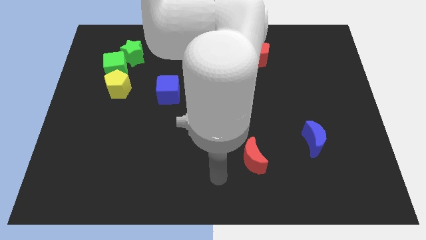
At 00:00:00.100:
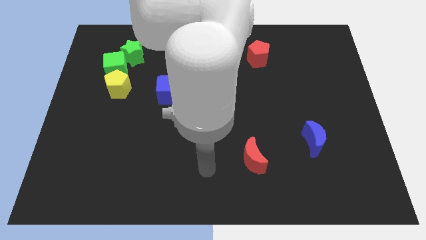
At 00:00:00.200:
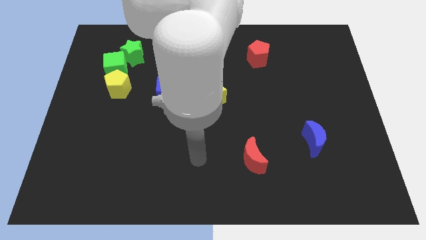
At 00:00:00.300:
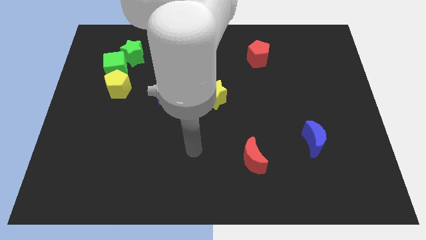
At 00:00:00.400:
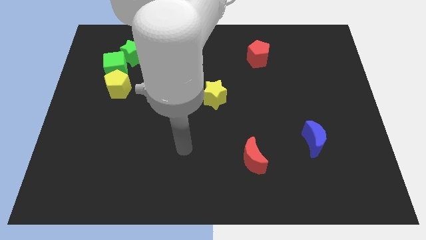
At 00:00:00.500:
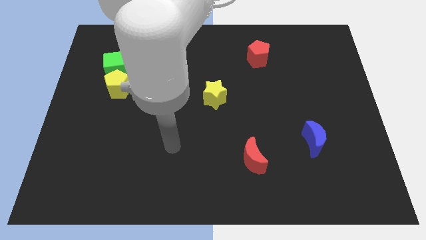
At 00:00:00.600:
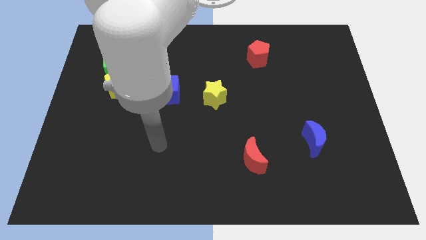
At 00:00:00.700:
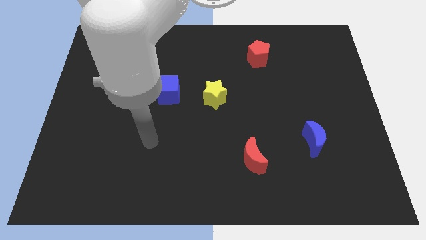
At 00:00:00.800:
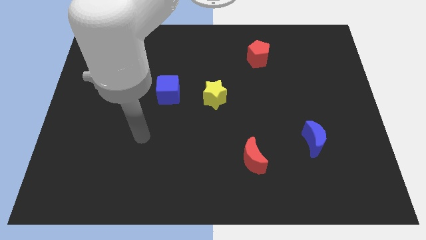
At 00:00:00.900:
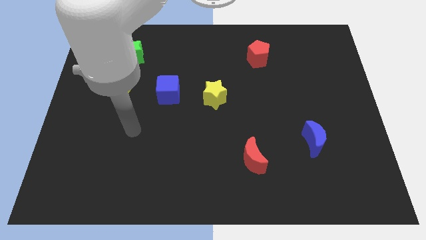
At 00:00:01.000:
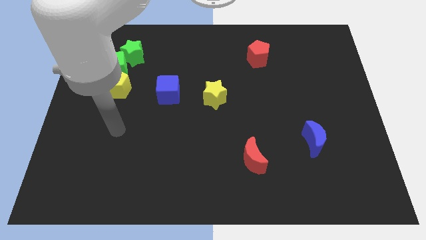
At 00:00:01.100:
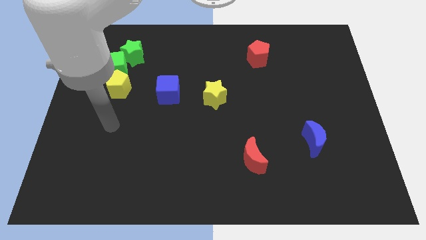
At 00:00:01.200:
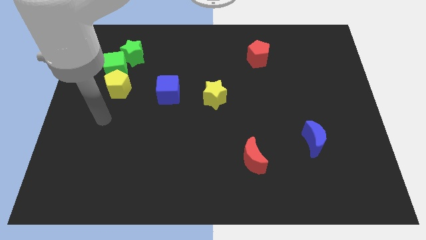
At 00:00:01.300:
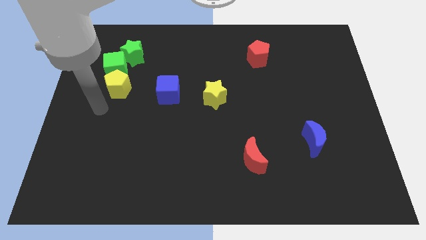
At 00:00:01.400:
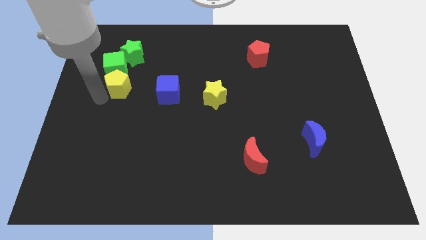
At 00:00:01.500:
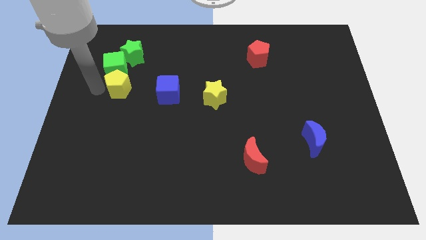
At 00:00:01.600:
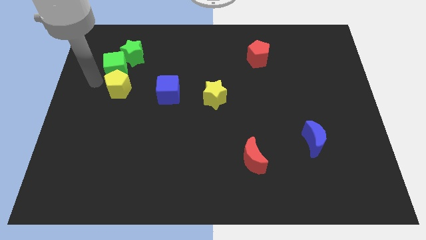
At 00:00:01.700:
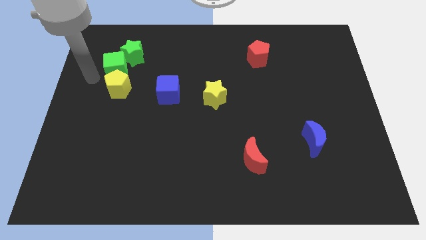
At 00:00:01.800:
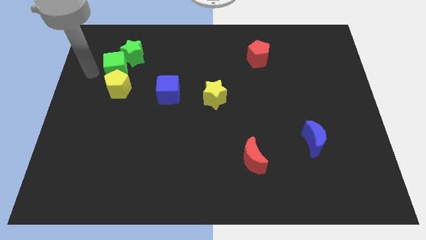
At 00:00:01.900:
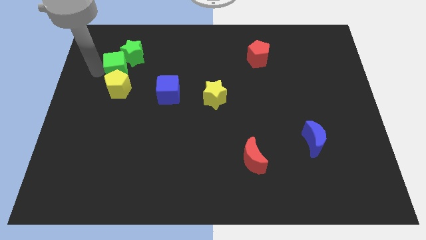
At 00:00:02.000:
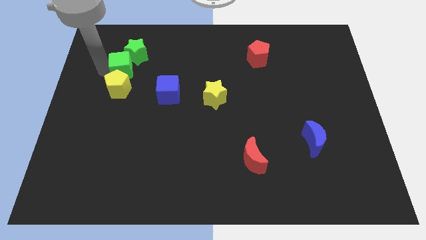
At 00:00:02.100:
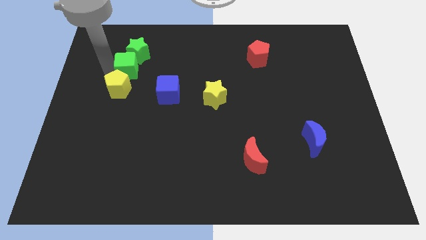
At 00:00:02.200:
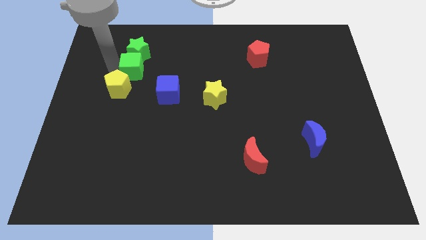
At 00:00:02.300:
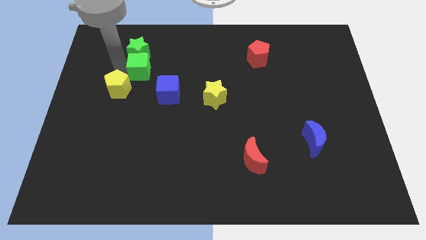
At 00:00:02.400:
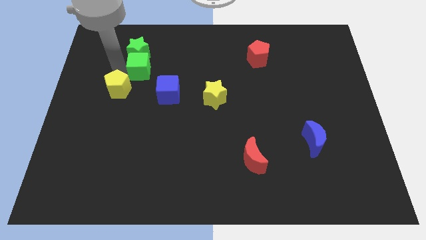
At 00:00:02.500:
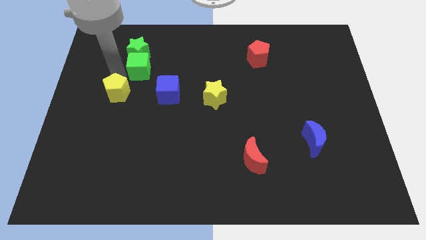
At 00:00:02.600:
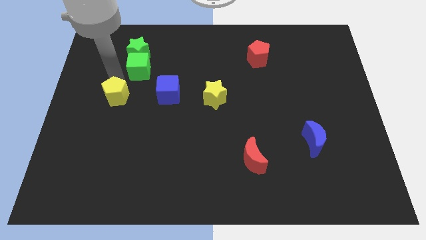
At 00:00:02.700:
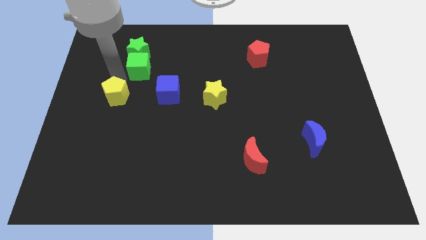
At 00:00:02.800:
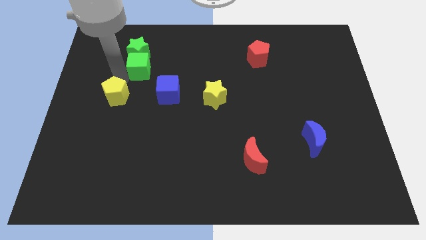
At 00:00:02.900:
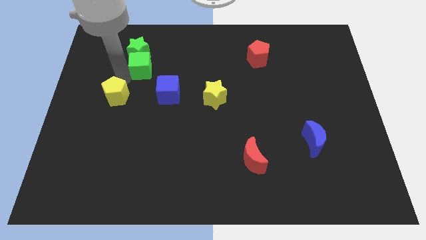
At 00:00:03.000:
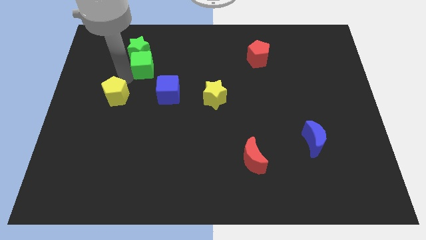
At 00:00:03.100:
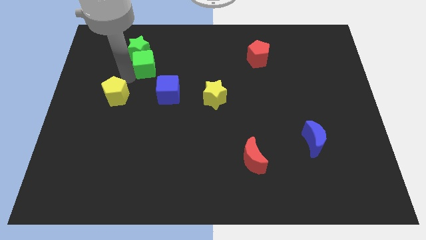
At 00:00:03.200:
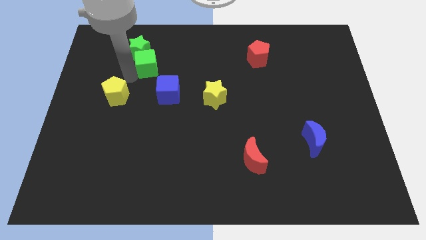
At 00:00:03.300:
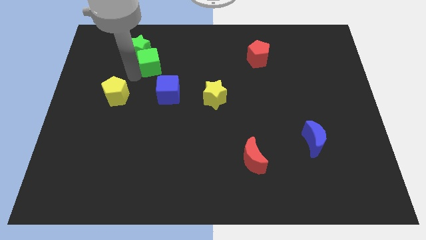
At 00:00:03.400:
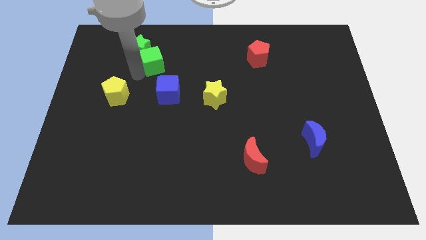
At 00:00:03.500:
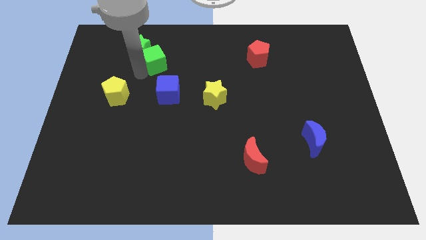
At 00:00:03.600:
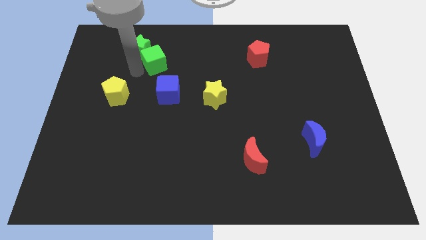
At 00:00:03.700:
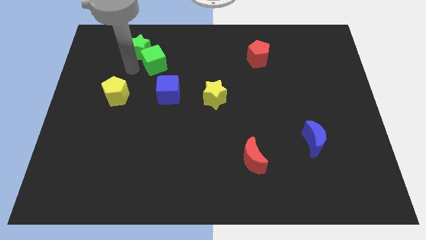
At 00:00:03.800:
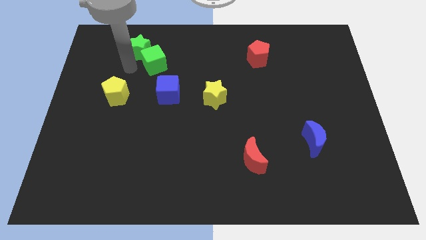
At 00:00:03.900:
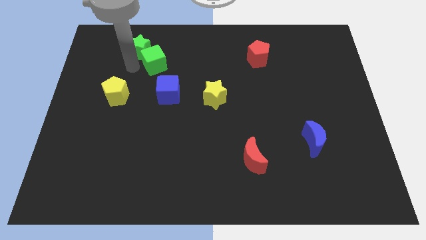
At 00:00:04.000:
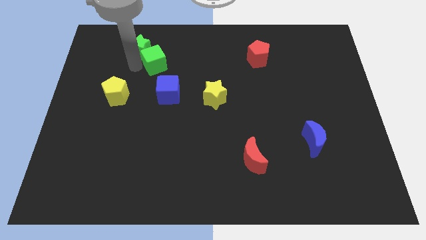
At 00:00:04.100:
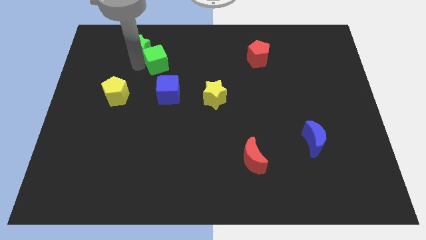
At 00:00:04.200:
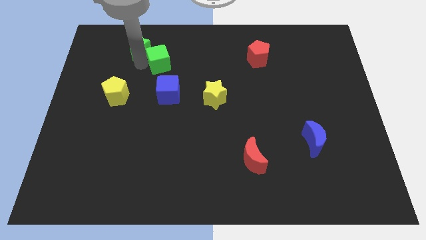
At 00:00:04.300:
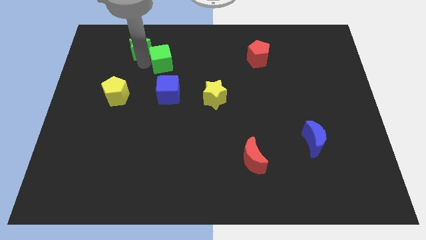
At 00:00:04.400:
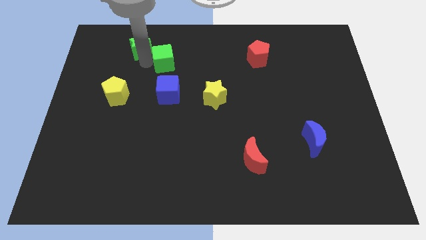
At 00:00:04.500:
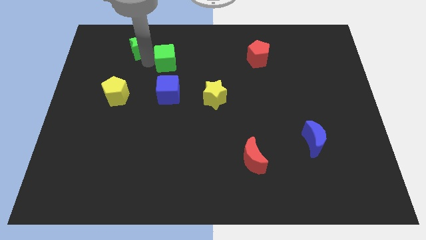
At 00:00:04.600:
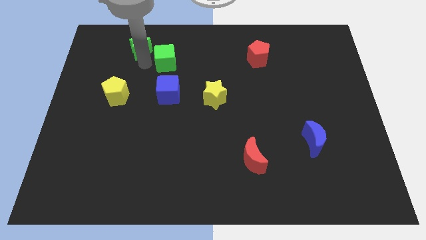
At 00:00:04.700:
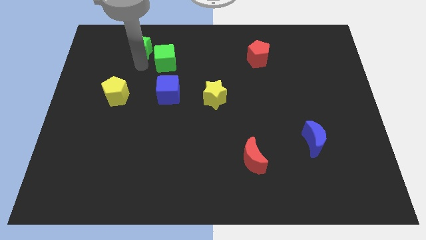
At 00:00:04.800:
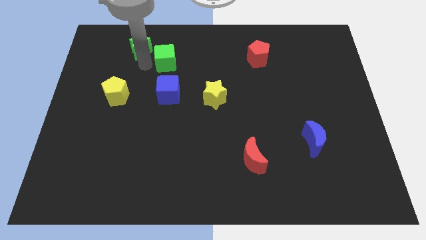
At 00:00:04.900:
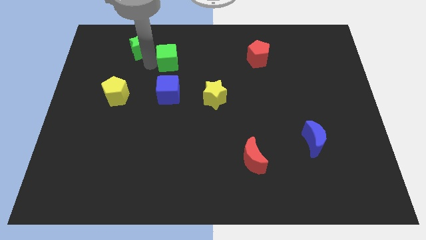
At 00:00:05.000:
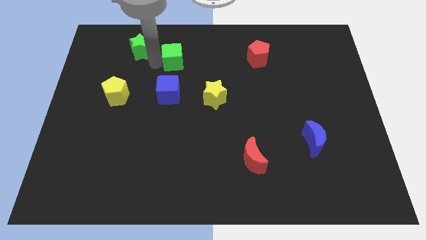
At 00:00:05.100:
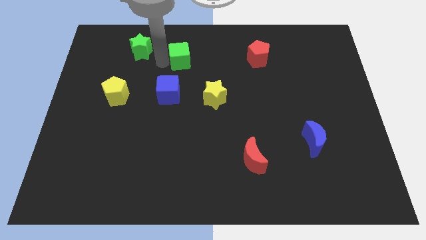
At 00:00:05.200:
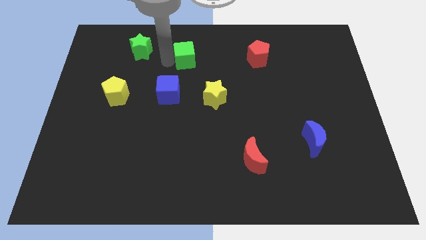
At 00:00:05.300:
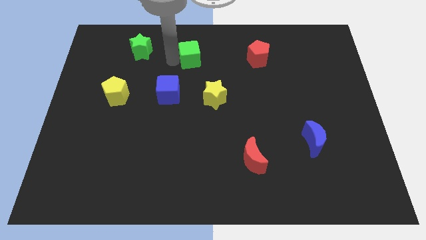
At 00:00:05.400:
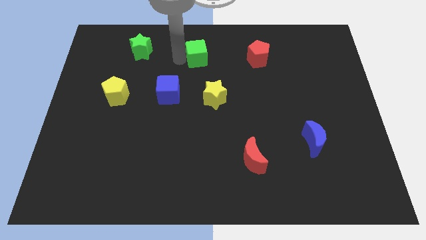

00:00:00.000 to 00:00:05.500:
move the green cube to the left side of the red pentagon

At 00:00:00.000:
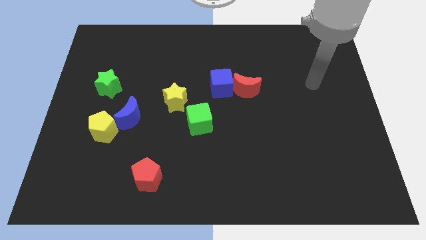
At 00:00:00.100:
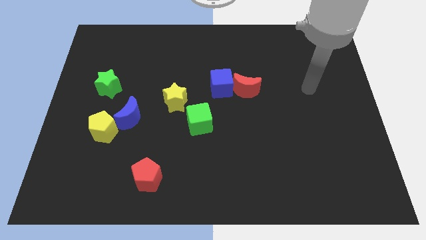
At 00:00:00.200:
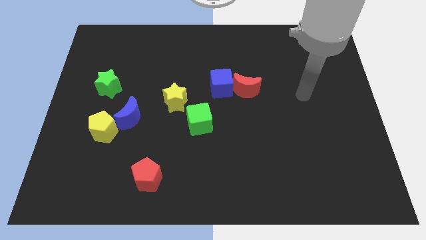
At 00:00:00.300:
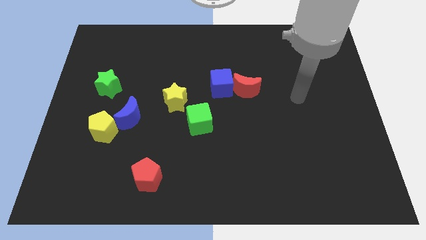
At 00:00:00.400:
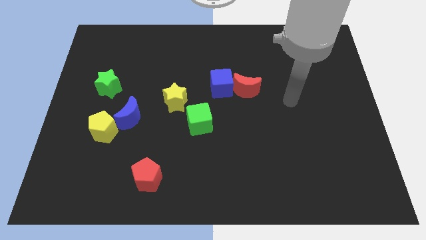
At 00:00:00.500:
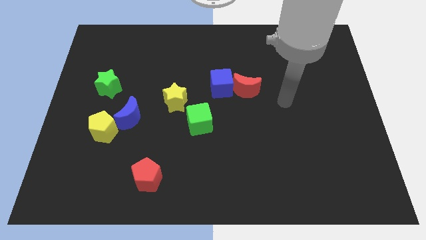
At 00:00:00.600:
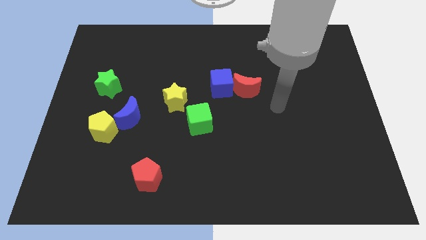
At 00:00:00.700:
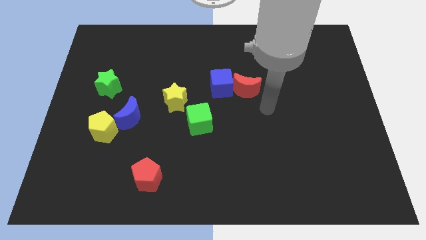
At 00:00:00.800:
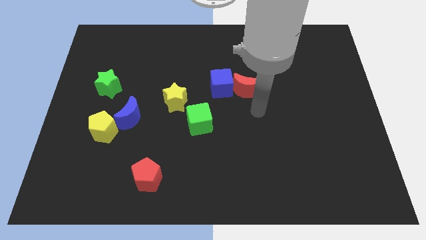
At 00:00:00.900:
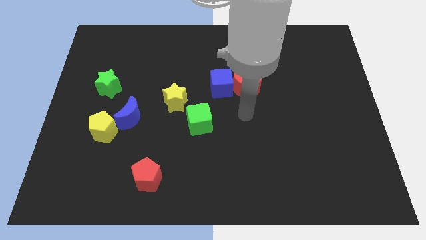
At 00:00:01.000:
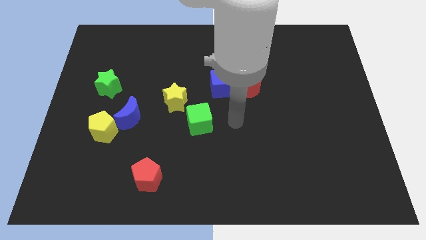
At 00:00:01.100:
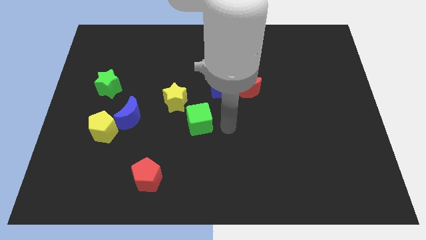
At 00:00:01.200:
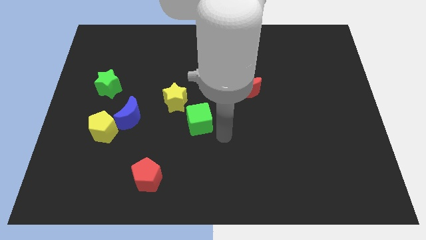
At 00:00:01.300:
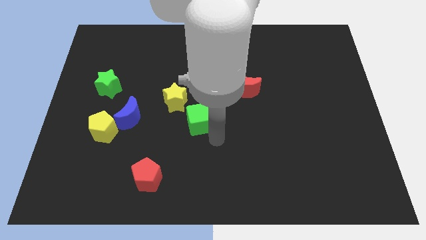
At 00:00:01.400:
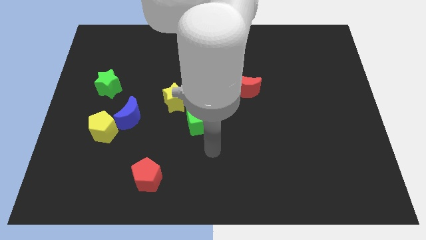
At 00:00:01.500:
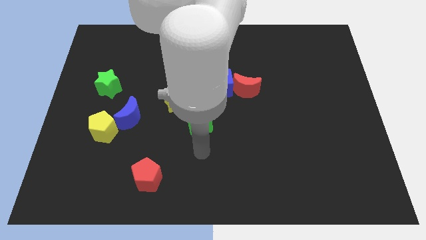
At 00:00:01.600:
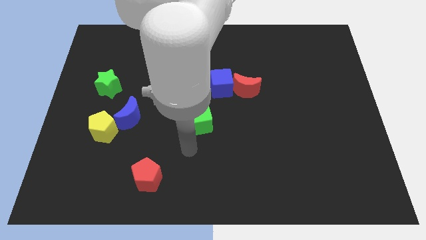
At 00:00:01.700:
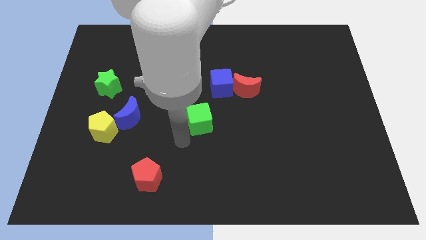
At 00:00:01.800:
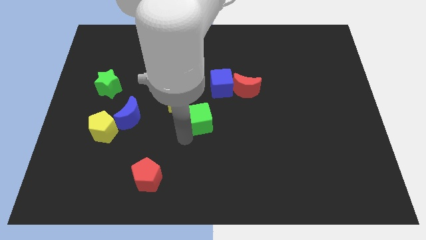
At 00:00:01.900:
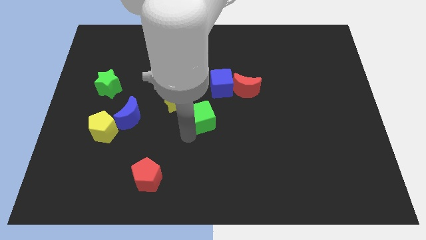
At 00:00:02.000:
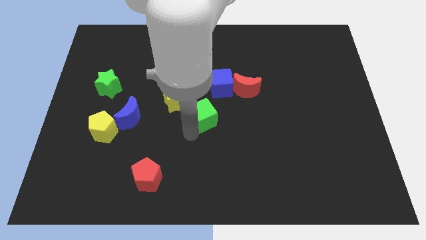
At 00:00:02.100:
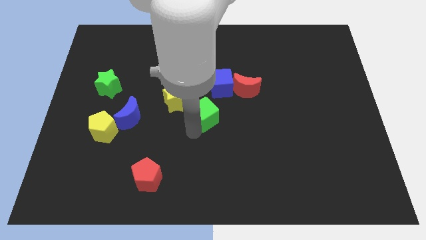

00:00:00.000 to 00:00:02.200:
move the green cube right of the yellow star

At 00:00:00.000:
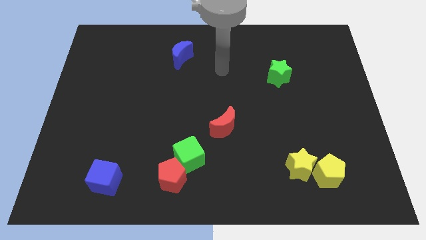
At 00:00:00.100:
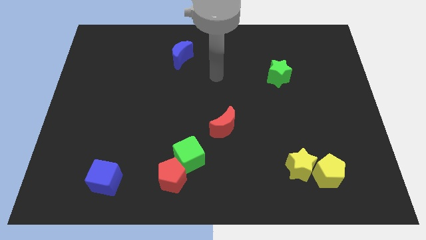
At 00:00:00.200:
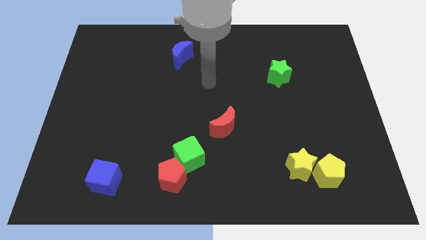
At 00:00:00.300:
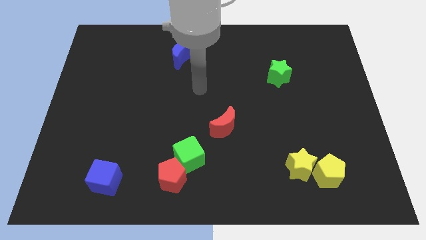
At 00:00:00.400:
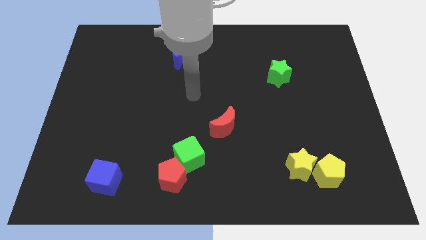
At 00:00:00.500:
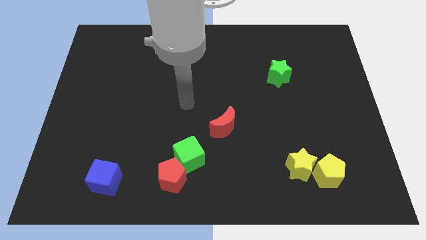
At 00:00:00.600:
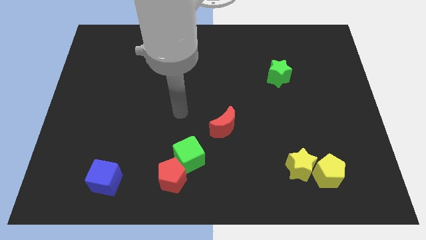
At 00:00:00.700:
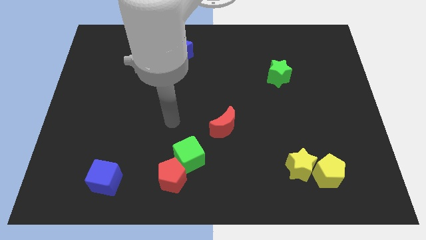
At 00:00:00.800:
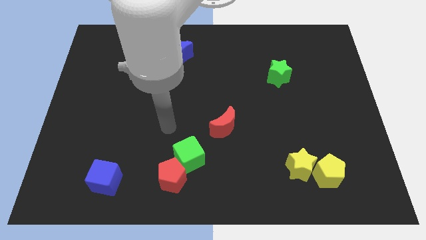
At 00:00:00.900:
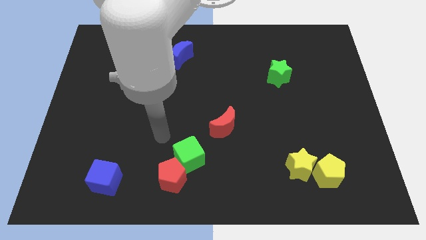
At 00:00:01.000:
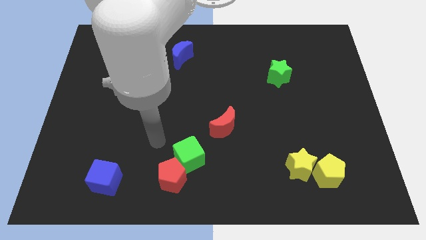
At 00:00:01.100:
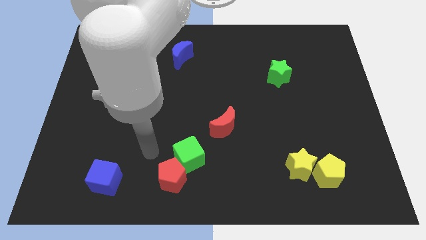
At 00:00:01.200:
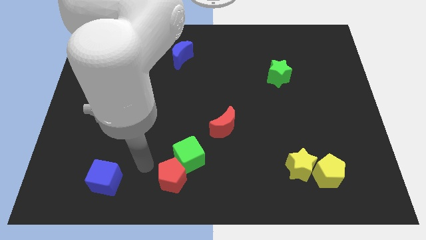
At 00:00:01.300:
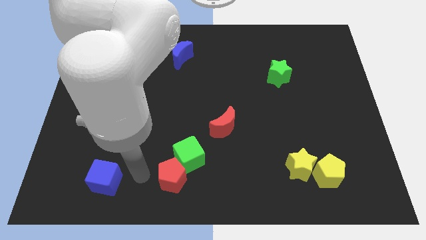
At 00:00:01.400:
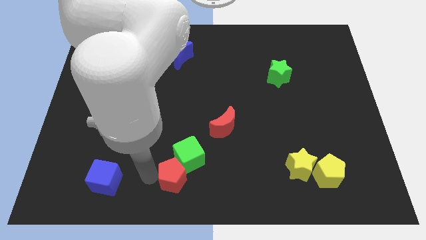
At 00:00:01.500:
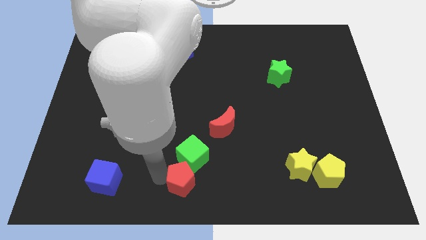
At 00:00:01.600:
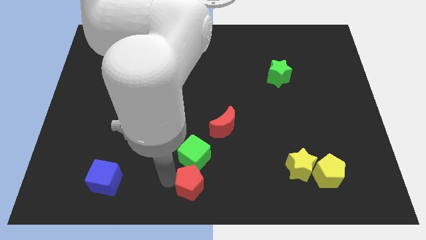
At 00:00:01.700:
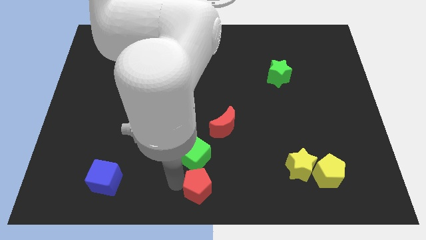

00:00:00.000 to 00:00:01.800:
put the red pentagon to the bottom right side of the green cube
